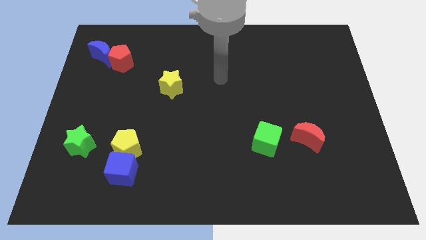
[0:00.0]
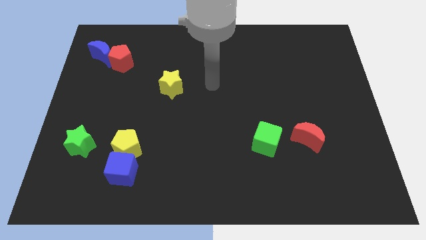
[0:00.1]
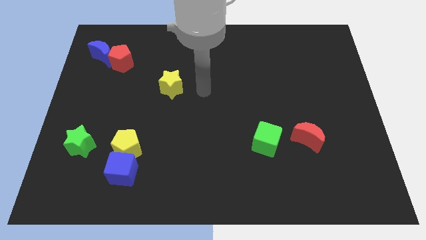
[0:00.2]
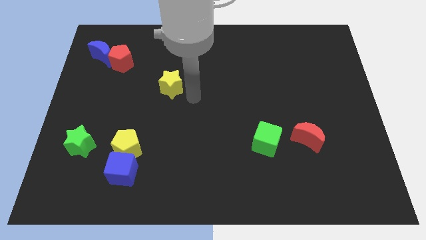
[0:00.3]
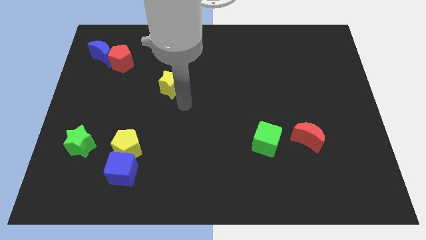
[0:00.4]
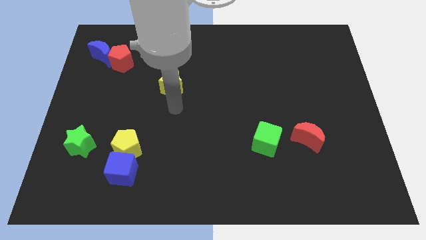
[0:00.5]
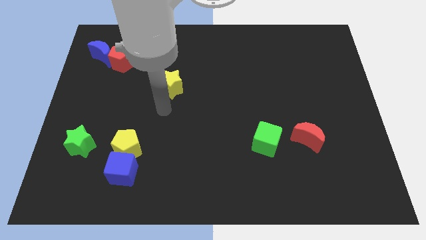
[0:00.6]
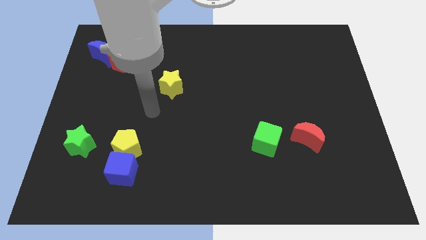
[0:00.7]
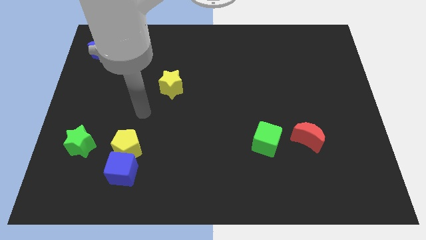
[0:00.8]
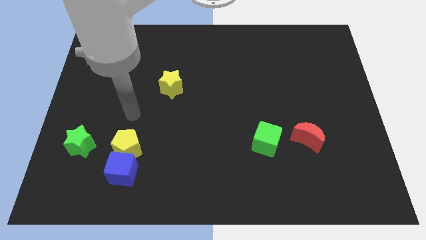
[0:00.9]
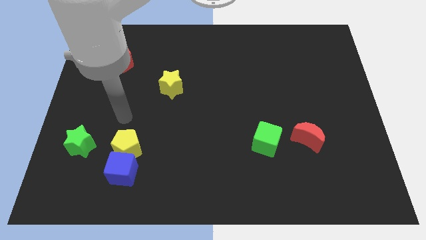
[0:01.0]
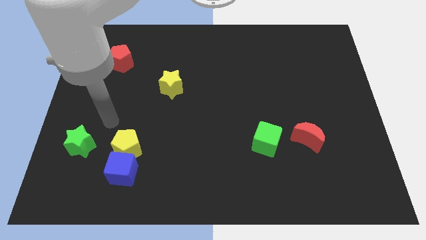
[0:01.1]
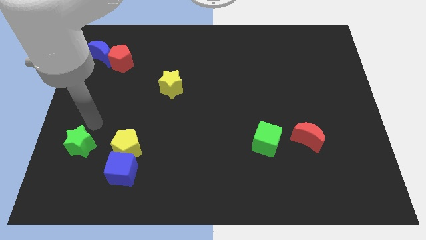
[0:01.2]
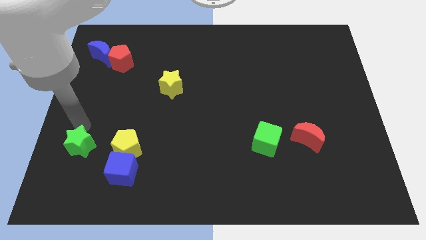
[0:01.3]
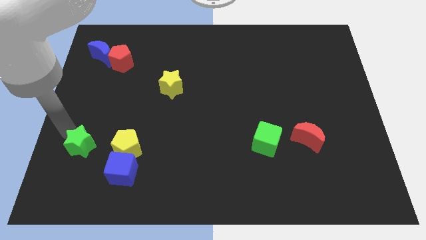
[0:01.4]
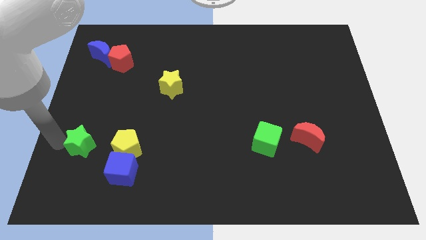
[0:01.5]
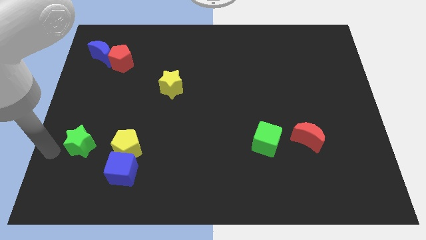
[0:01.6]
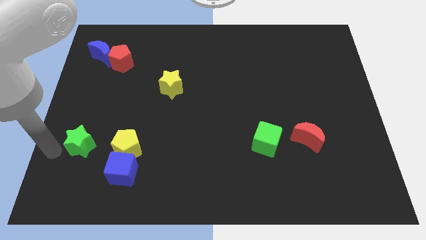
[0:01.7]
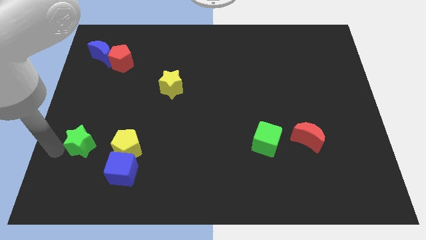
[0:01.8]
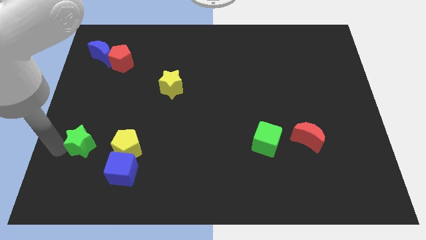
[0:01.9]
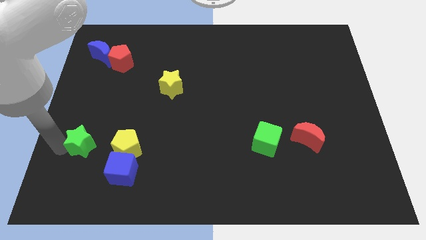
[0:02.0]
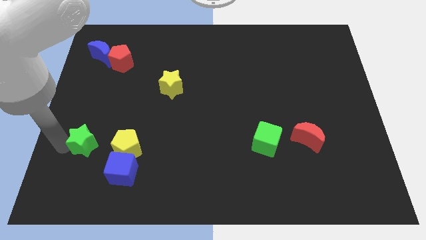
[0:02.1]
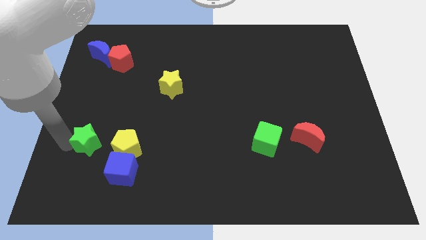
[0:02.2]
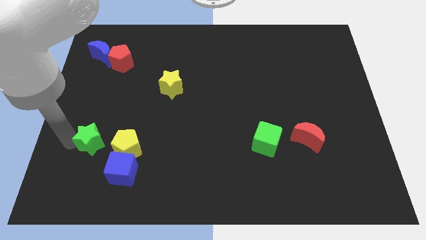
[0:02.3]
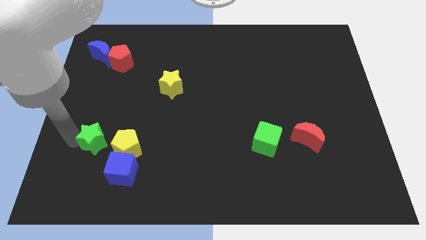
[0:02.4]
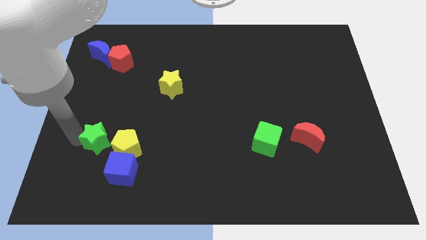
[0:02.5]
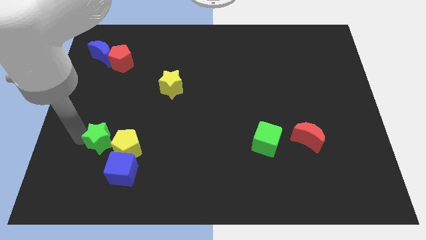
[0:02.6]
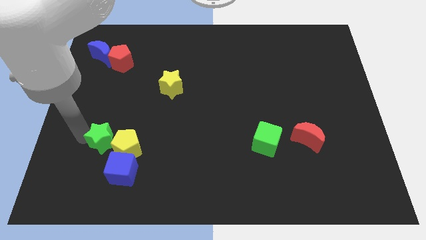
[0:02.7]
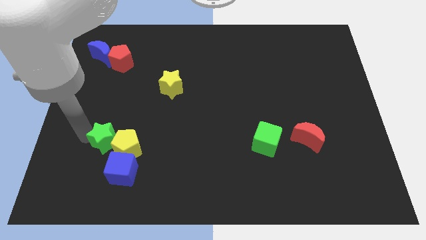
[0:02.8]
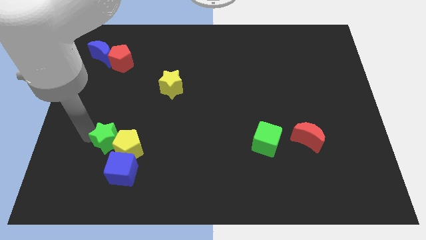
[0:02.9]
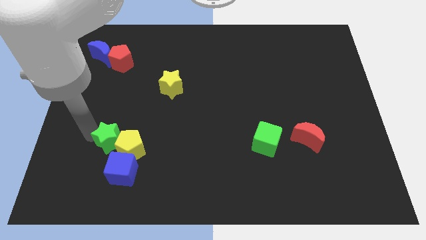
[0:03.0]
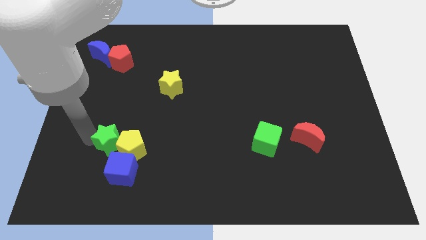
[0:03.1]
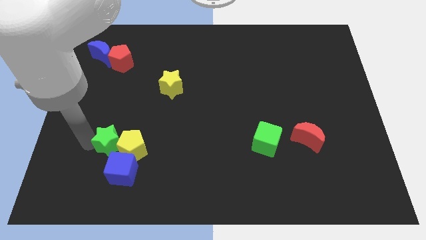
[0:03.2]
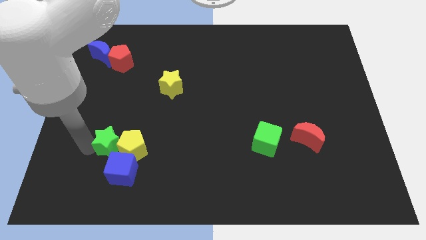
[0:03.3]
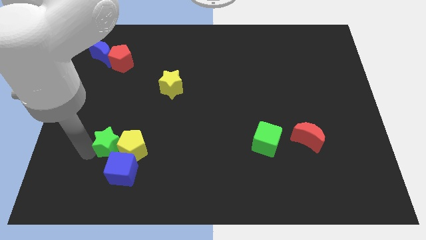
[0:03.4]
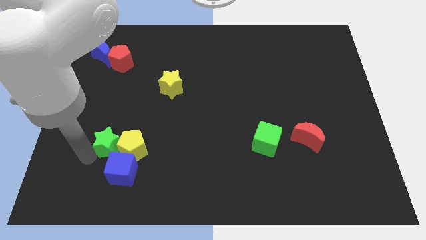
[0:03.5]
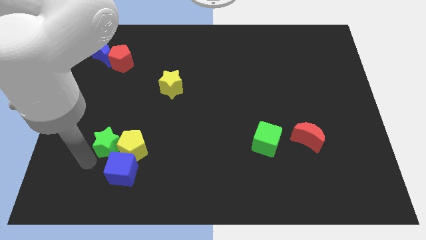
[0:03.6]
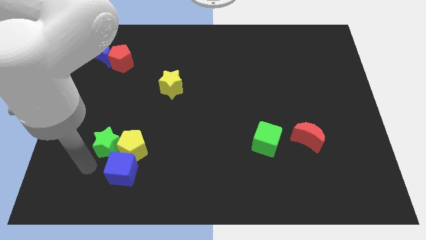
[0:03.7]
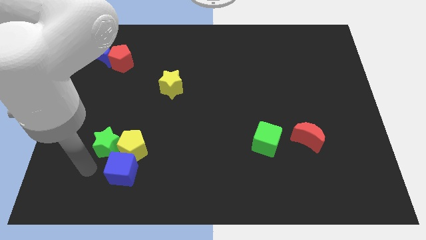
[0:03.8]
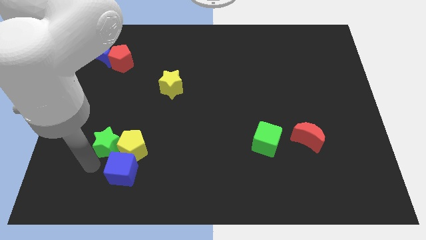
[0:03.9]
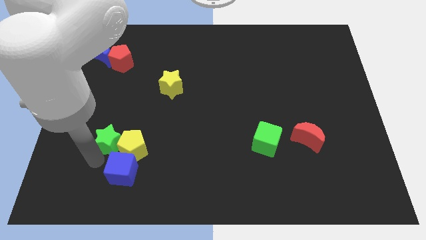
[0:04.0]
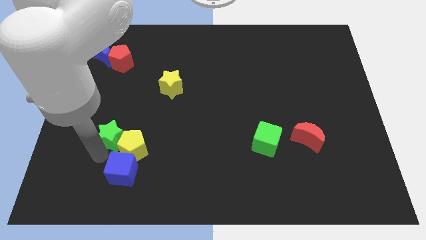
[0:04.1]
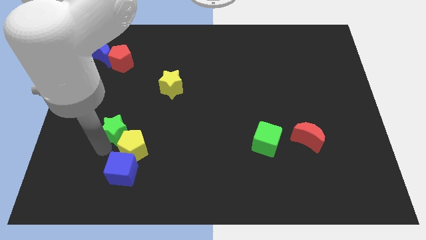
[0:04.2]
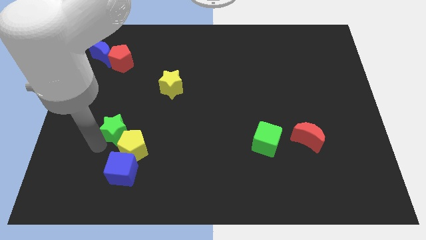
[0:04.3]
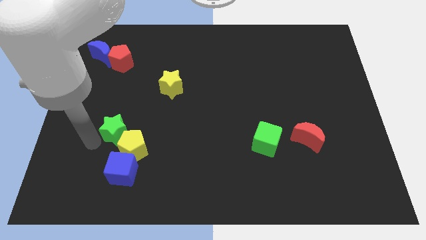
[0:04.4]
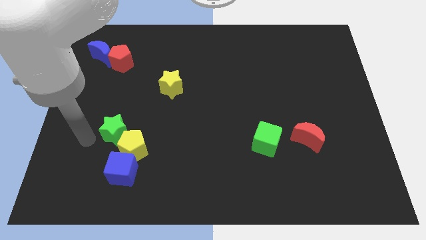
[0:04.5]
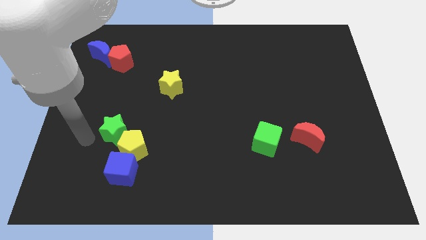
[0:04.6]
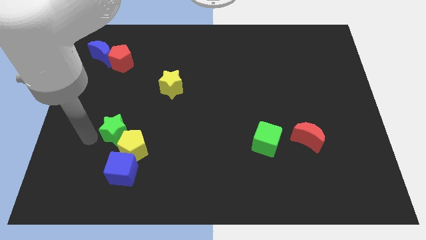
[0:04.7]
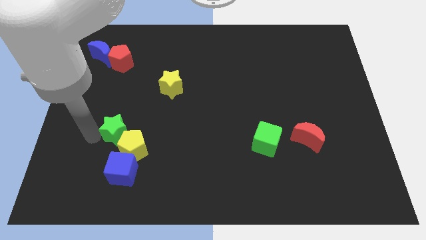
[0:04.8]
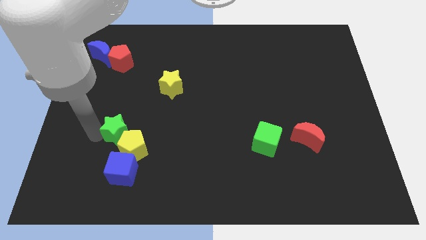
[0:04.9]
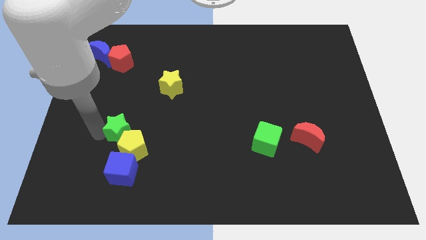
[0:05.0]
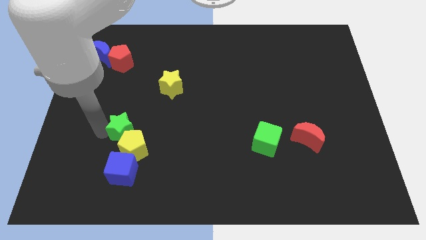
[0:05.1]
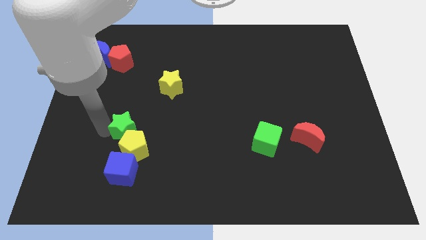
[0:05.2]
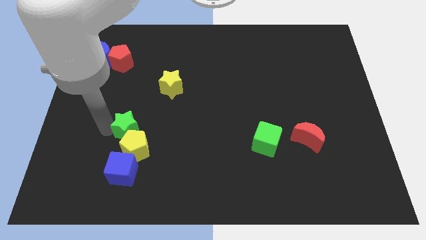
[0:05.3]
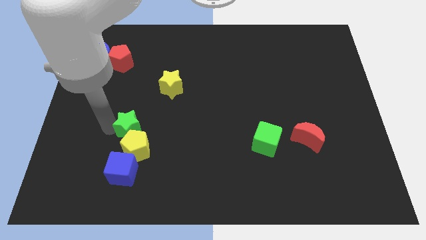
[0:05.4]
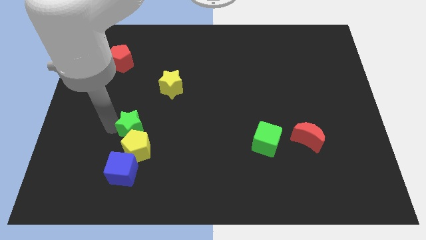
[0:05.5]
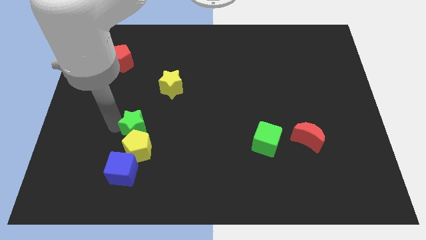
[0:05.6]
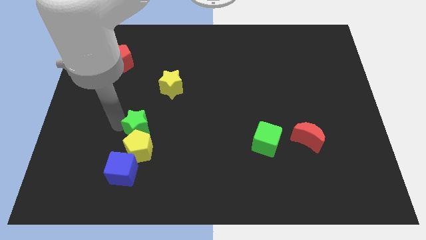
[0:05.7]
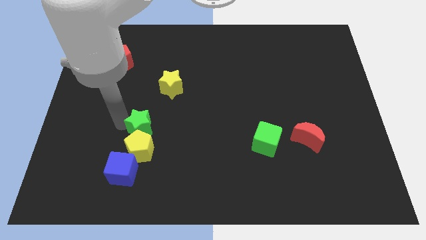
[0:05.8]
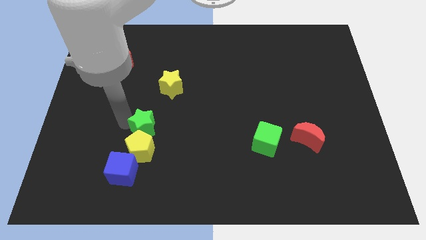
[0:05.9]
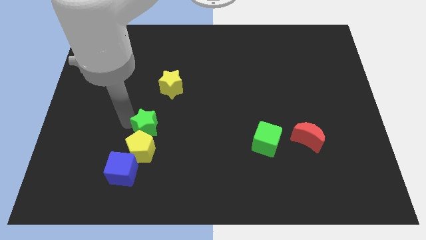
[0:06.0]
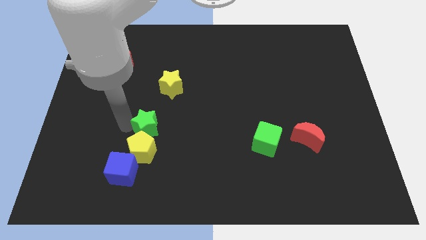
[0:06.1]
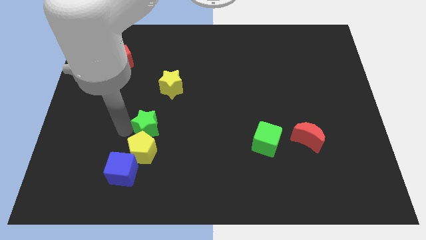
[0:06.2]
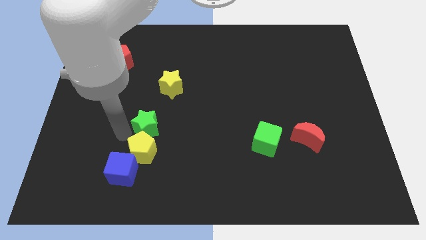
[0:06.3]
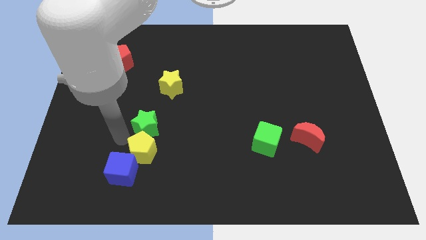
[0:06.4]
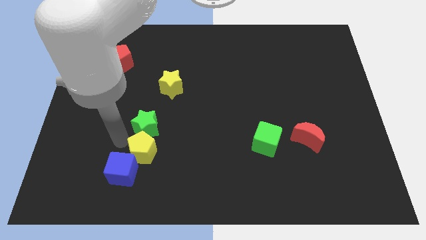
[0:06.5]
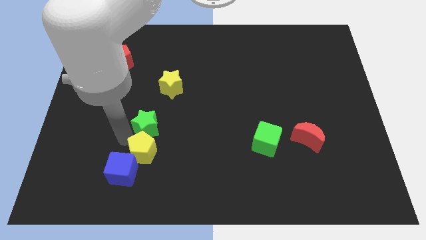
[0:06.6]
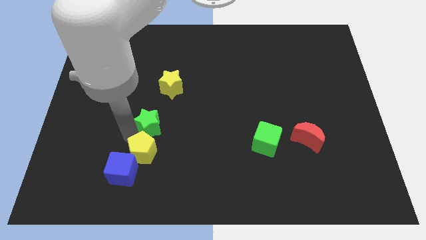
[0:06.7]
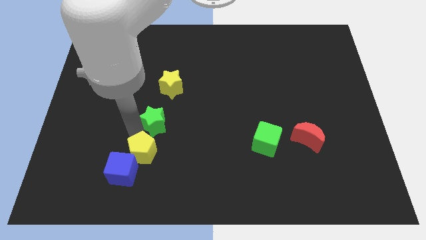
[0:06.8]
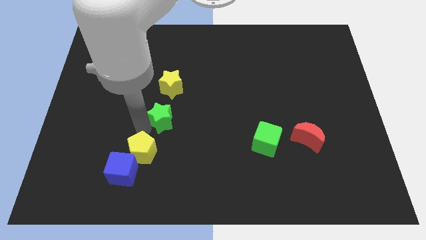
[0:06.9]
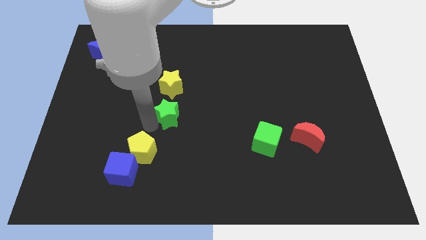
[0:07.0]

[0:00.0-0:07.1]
move the green star to the center
